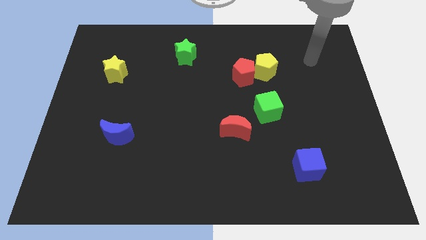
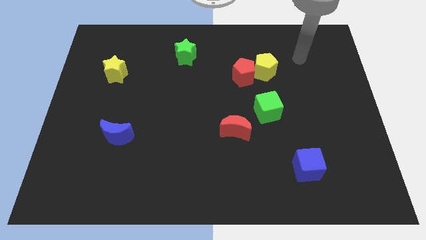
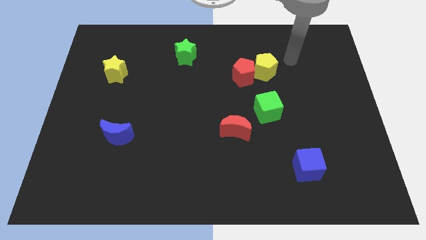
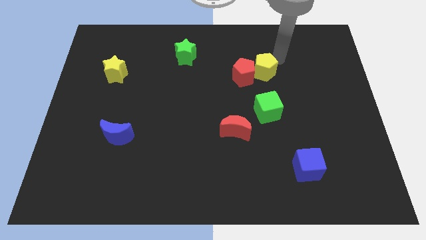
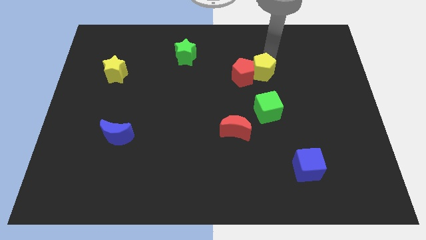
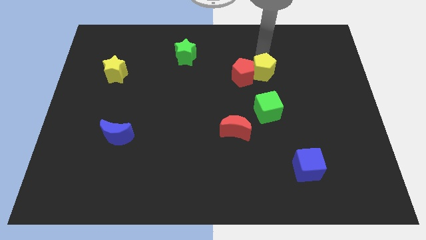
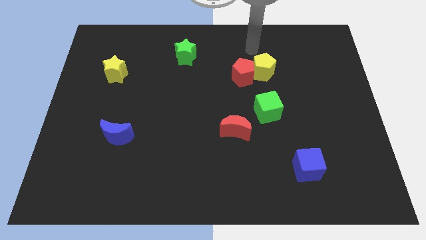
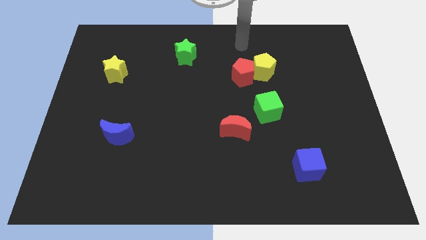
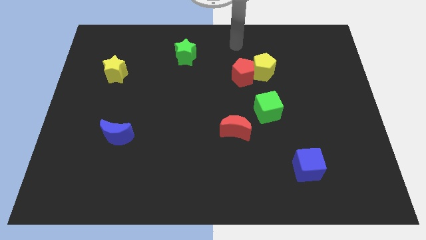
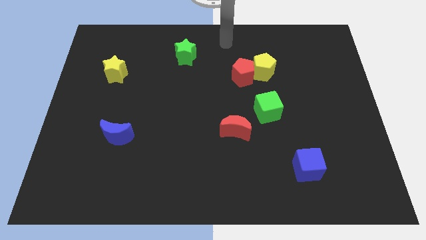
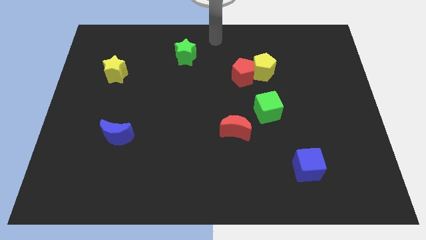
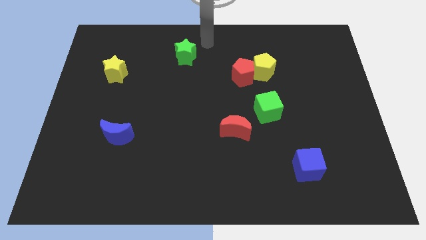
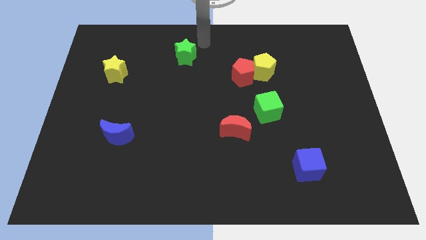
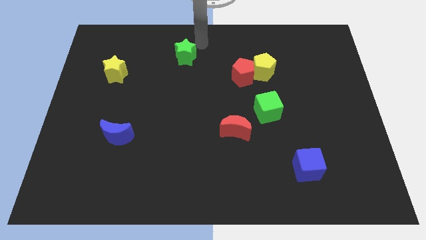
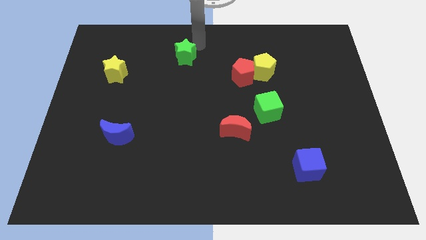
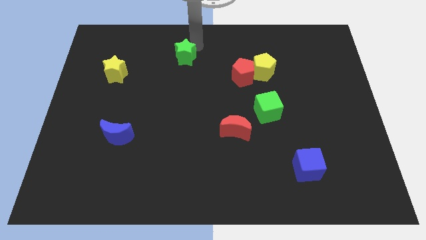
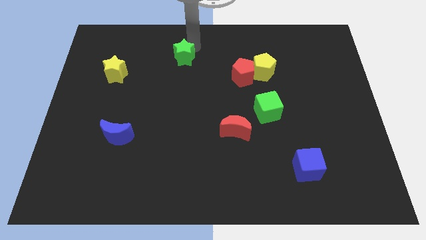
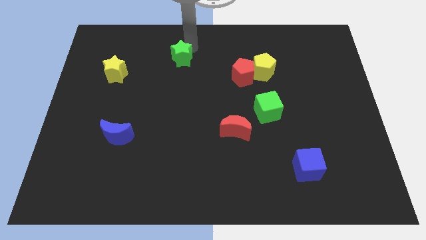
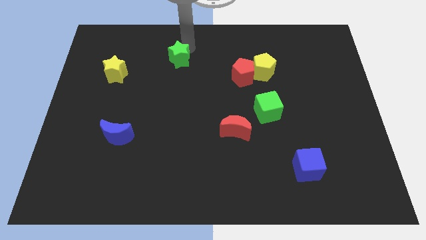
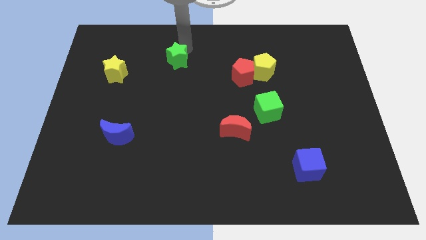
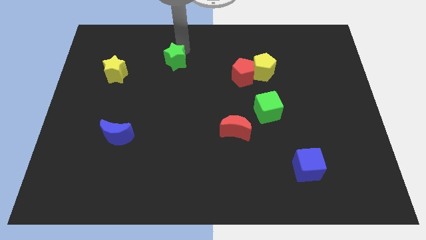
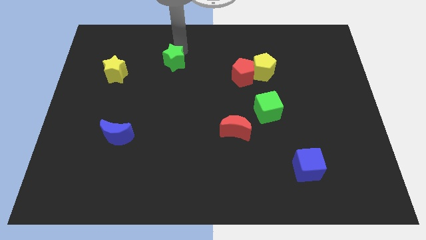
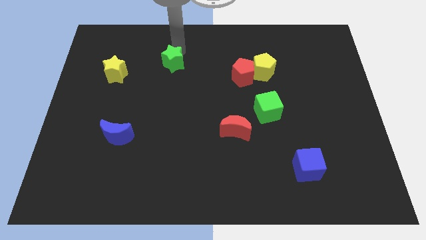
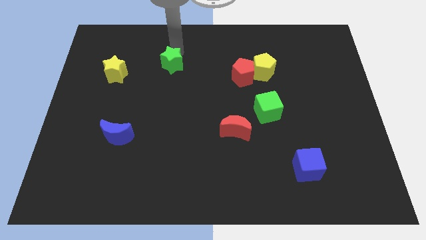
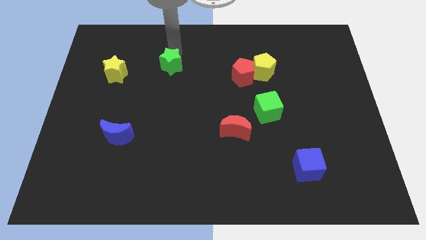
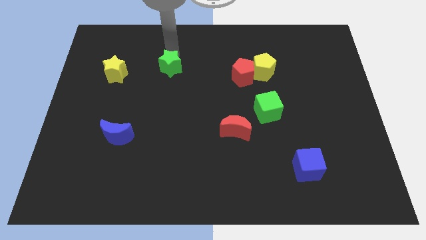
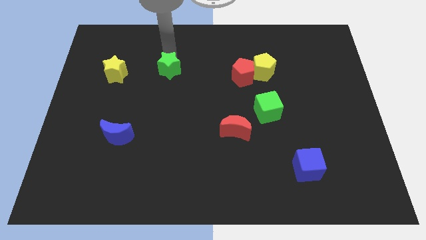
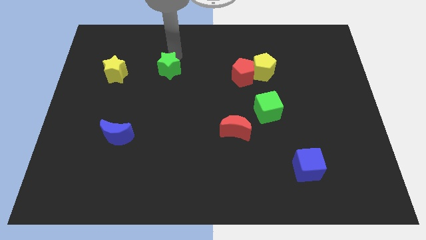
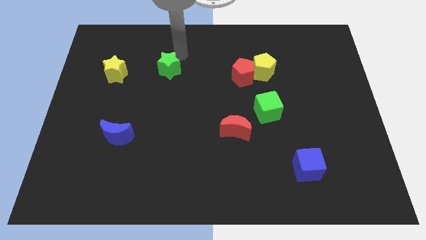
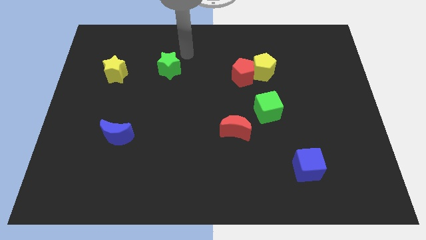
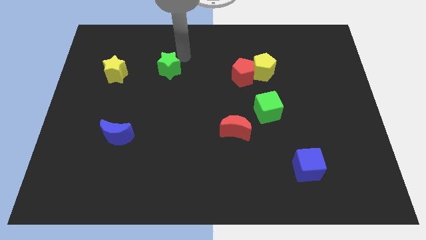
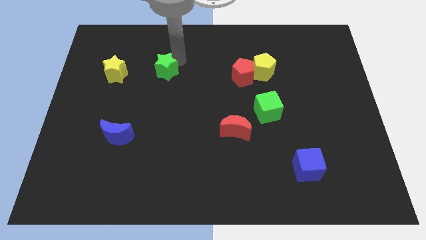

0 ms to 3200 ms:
slide the green star down and left diagonally somewhat

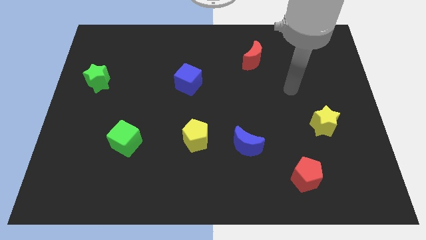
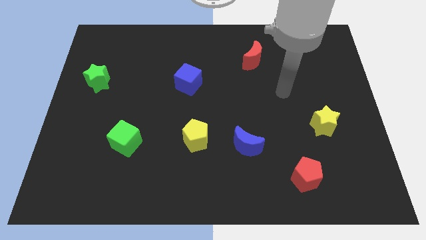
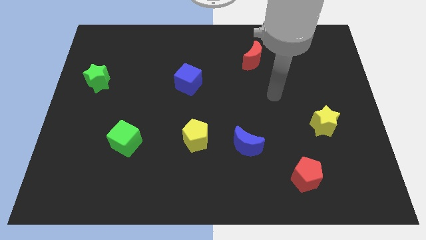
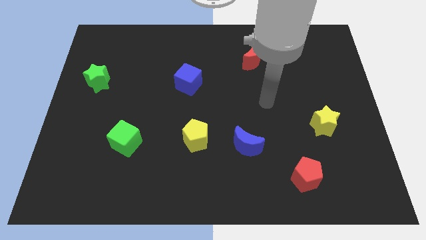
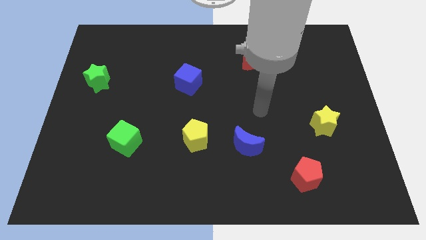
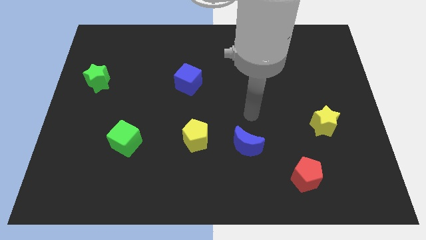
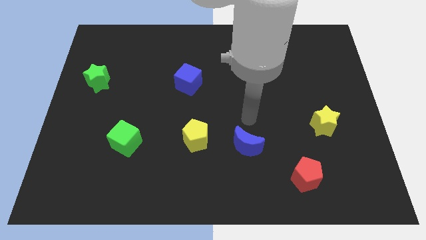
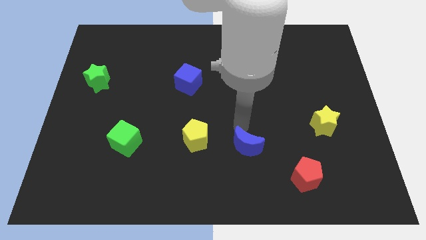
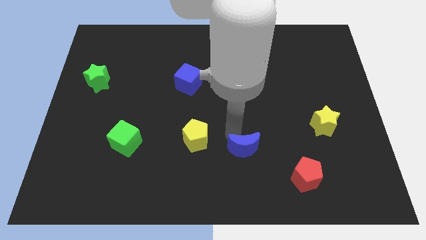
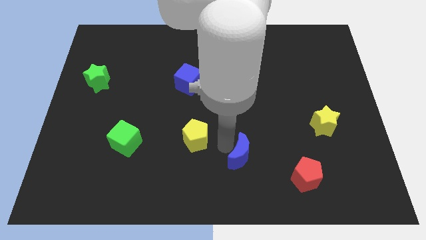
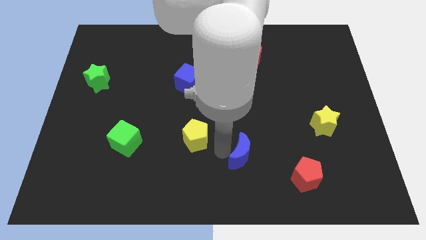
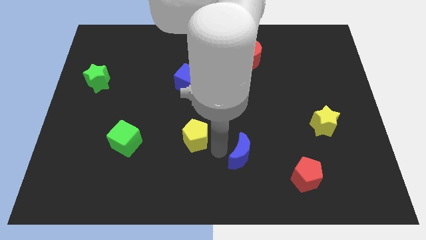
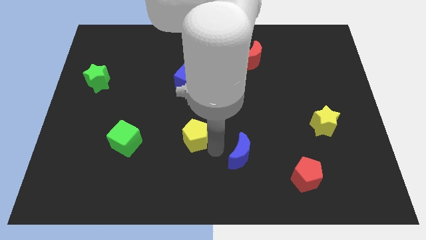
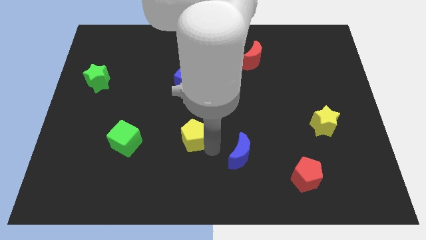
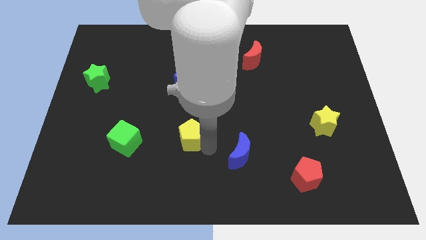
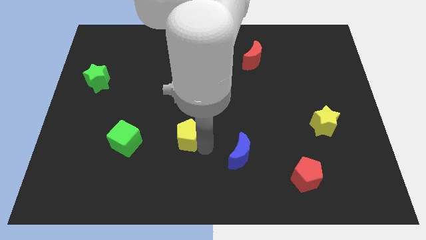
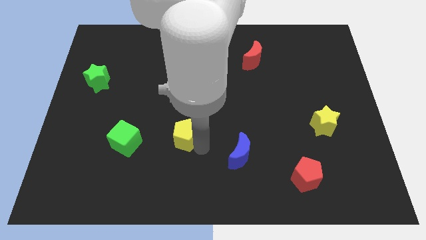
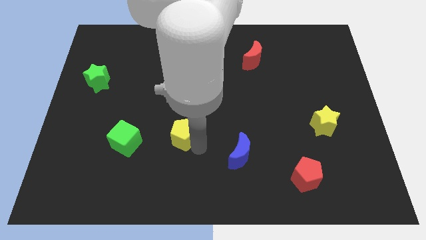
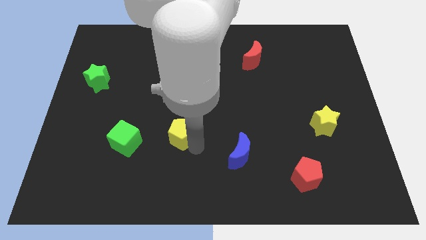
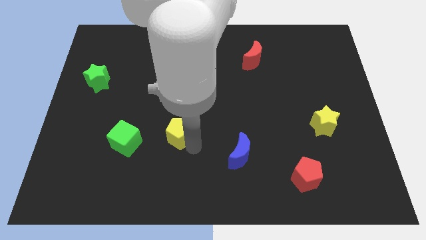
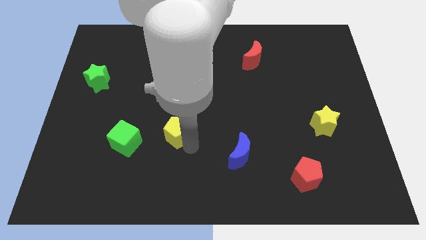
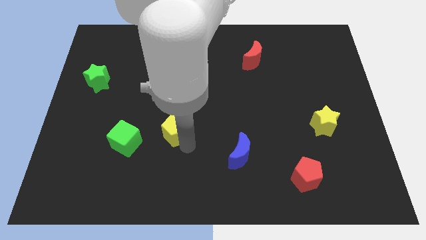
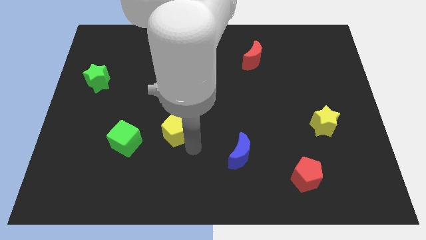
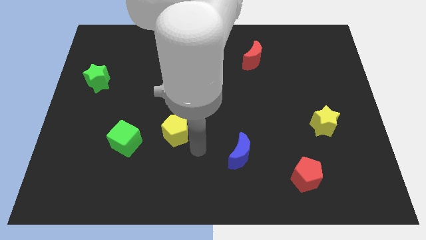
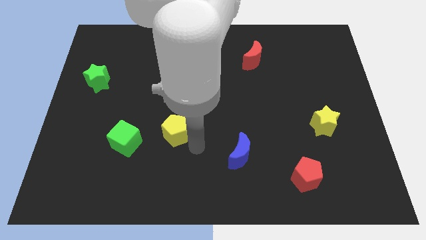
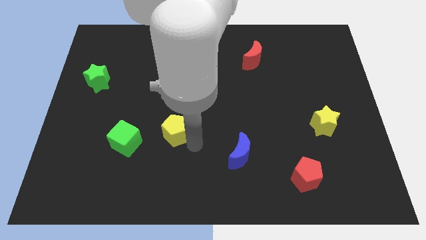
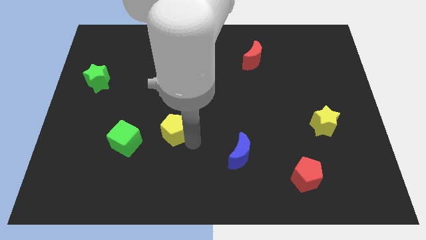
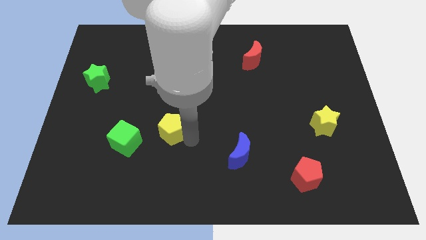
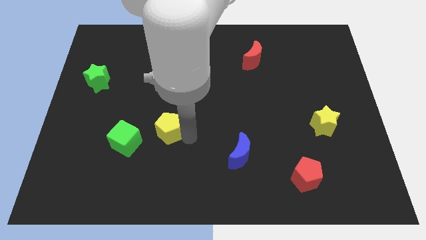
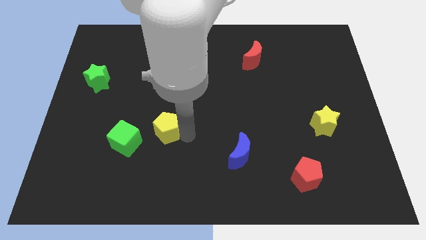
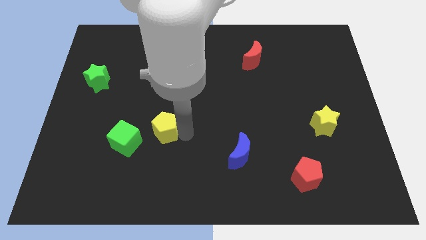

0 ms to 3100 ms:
slide the yellow pentagon left a bit

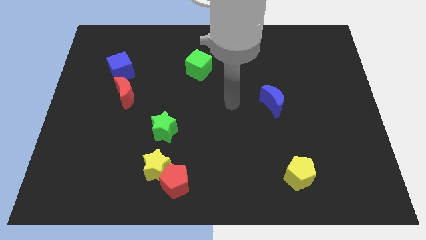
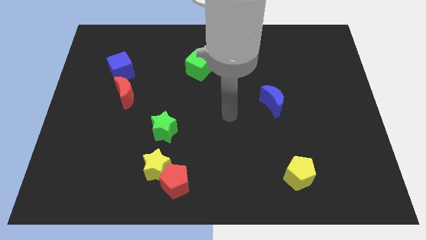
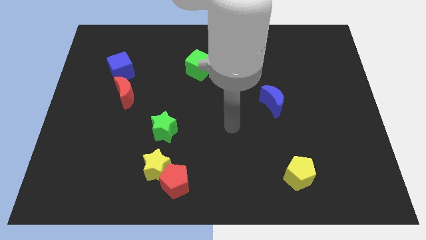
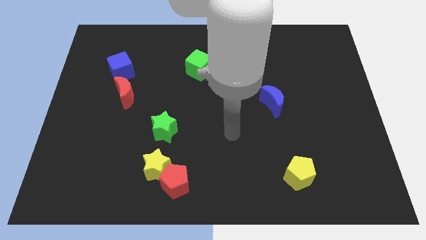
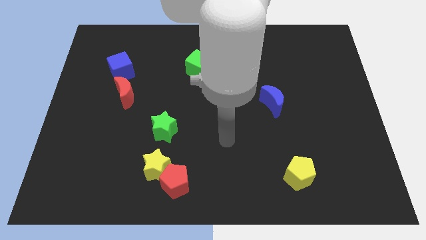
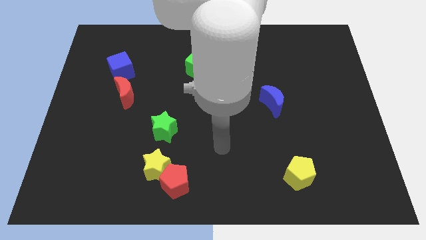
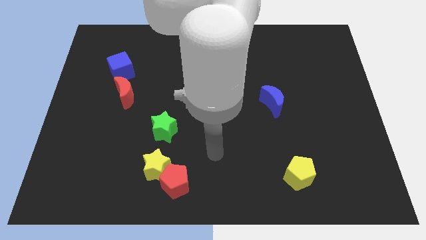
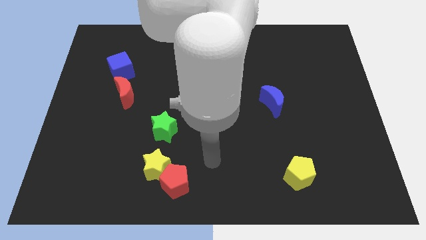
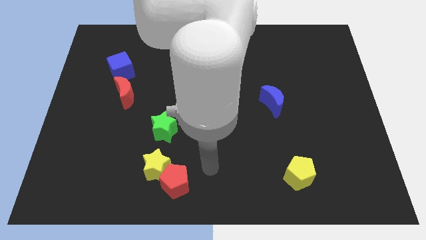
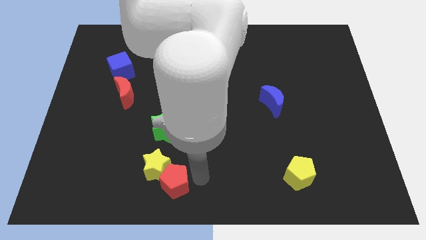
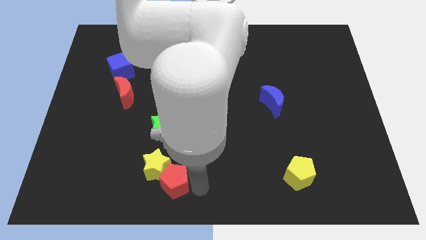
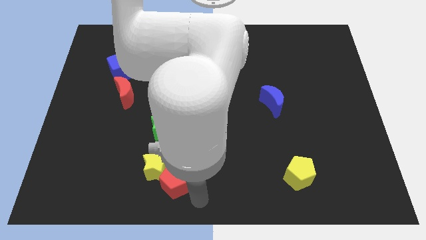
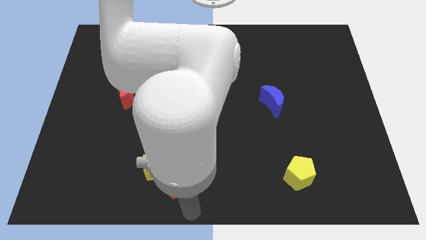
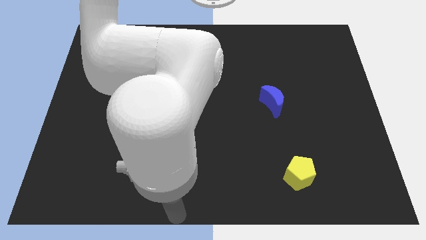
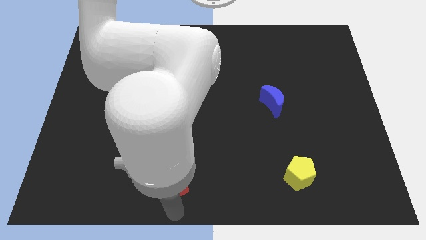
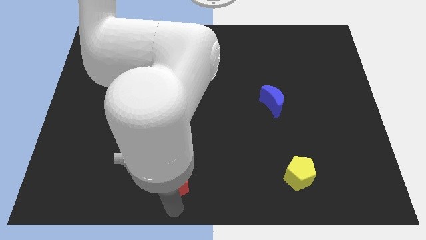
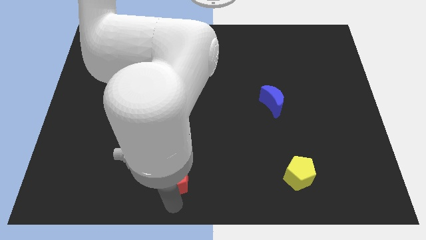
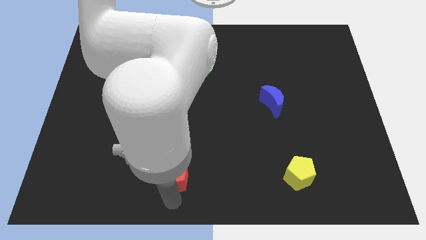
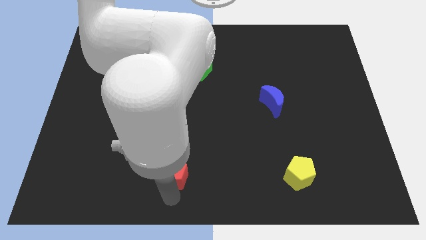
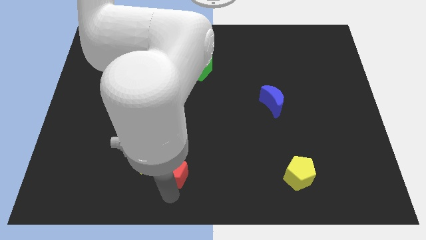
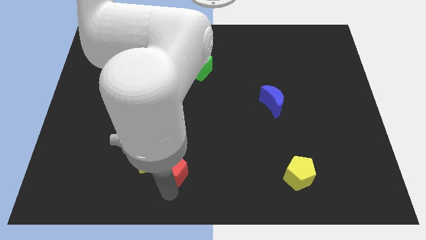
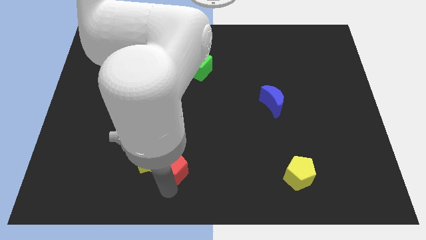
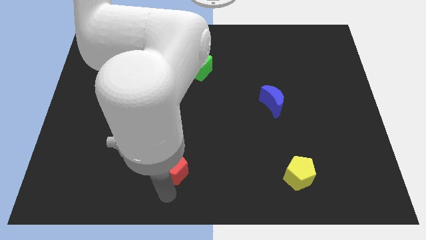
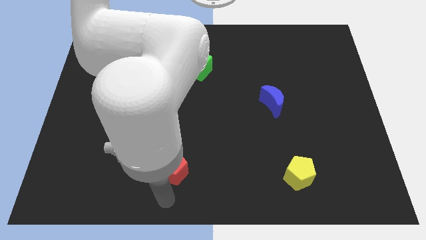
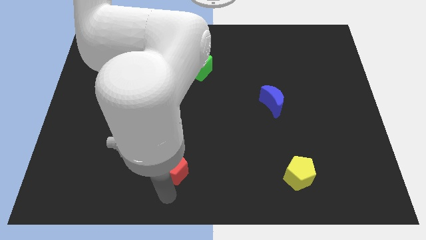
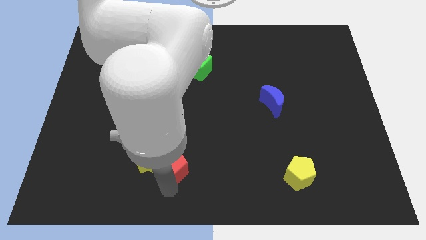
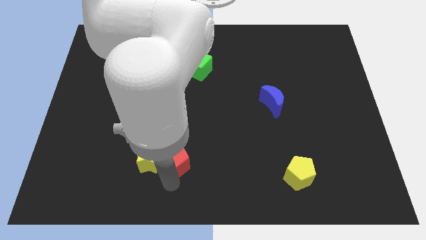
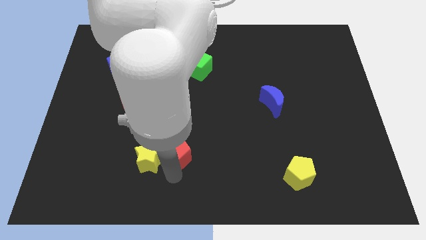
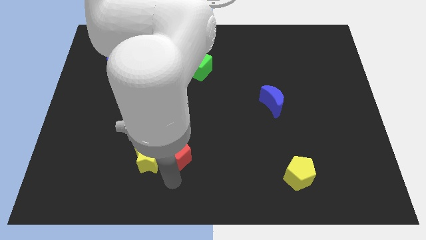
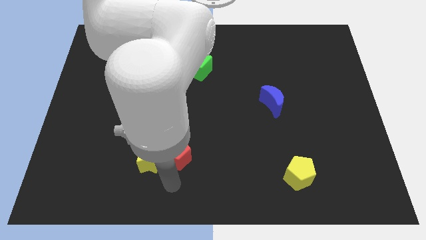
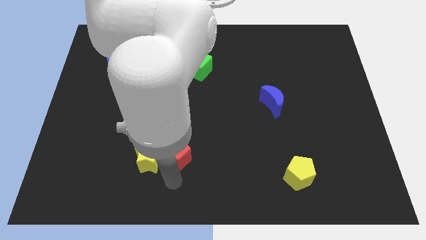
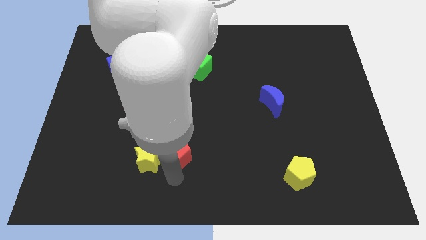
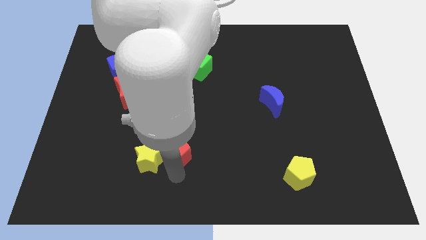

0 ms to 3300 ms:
move the red pentagon upwards slightly
